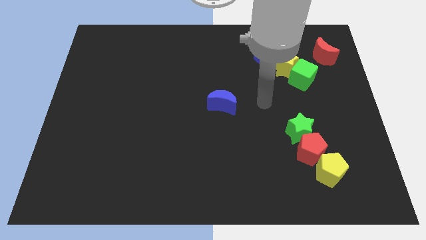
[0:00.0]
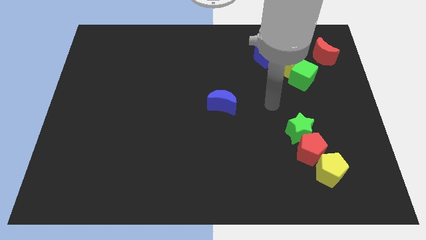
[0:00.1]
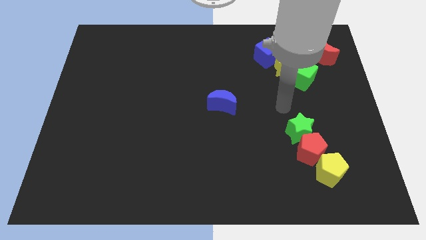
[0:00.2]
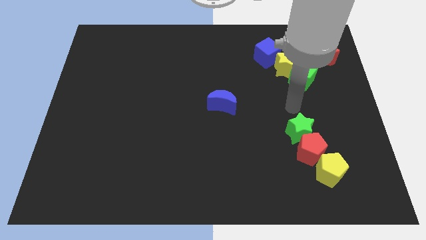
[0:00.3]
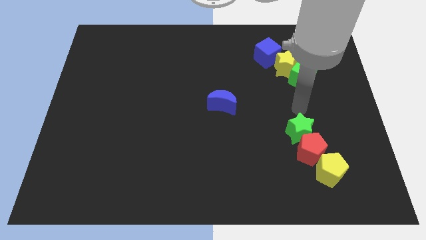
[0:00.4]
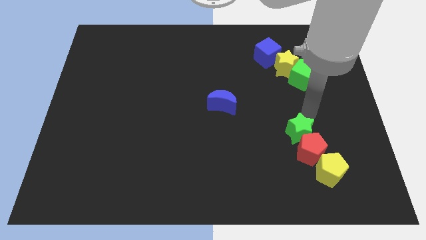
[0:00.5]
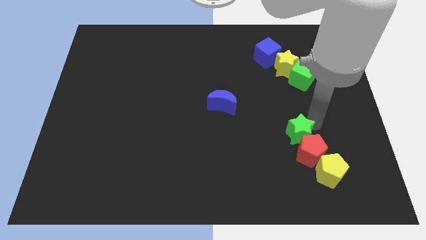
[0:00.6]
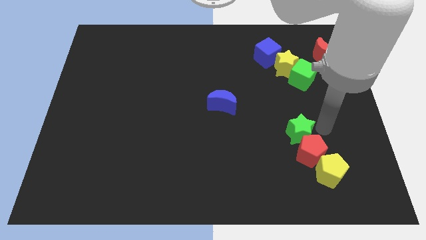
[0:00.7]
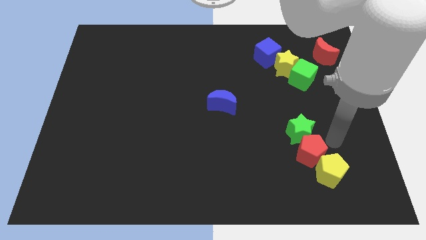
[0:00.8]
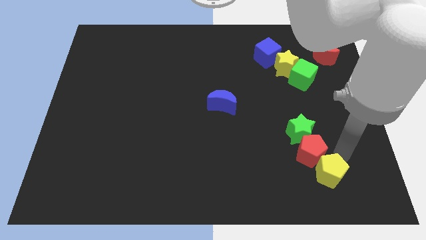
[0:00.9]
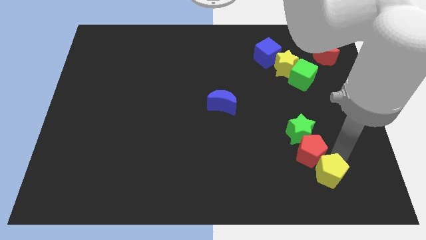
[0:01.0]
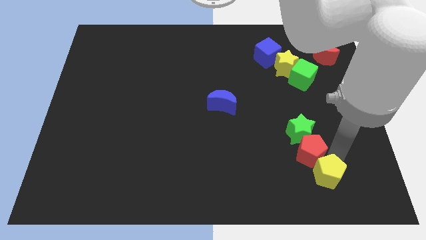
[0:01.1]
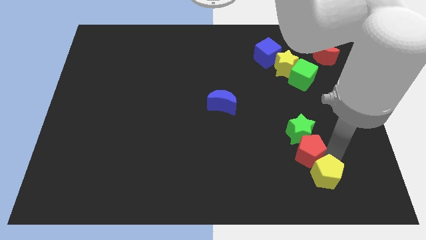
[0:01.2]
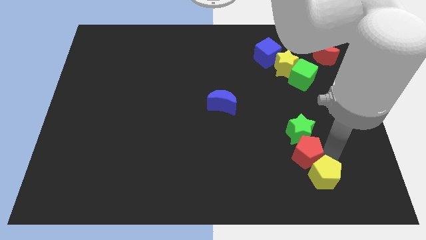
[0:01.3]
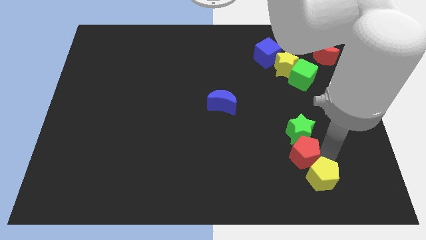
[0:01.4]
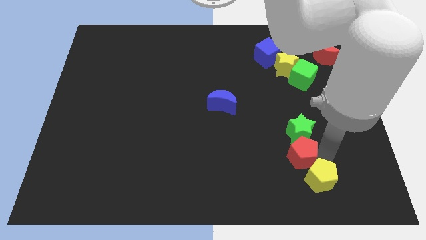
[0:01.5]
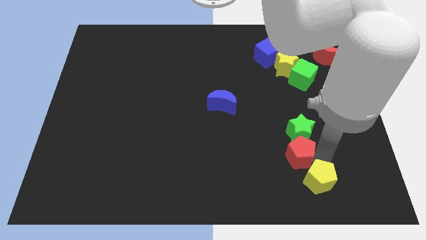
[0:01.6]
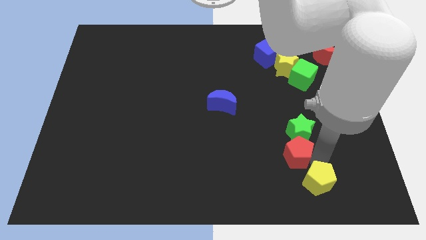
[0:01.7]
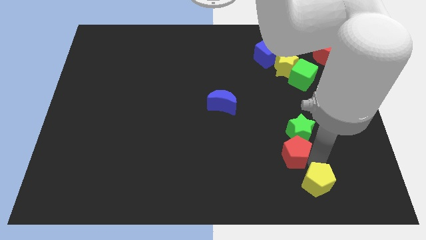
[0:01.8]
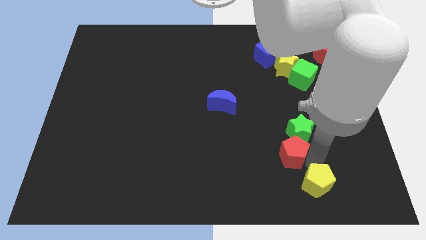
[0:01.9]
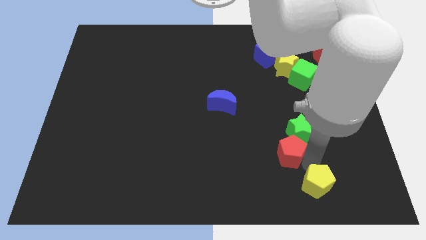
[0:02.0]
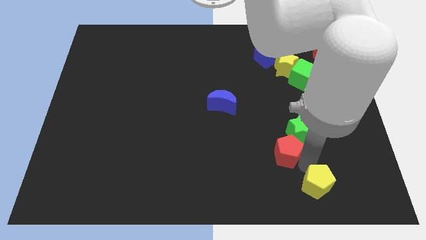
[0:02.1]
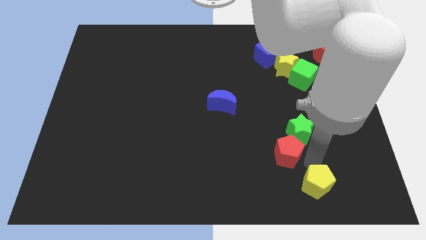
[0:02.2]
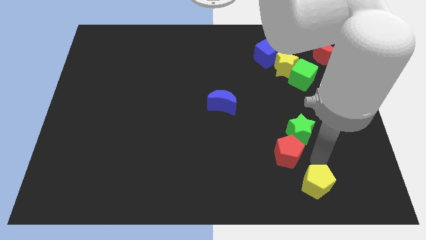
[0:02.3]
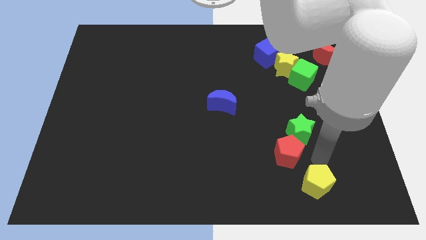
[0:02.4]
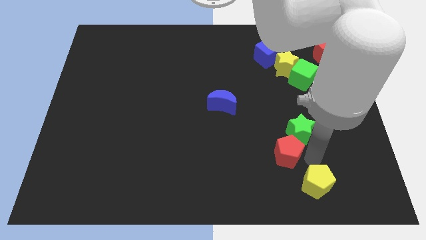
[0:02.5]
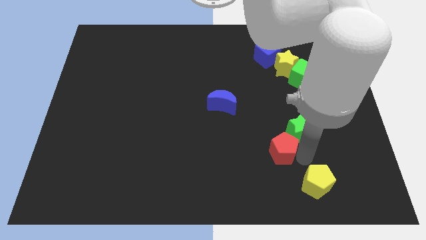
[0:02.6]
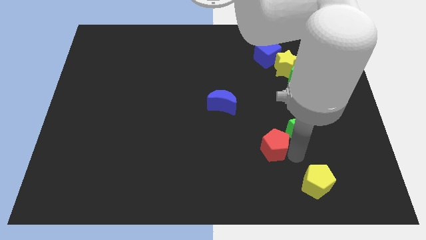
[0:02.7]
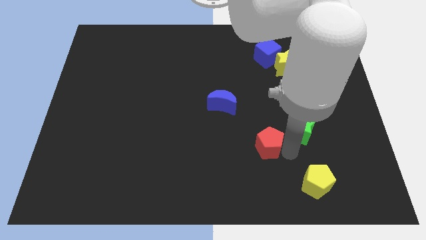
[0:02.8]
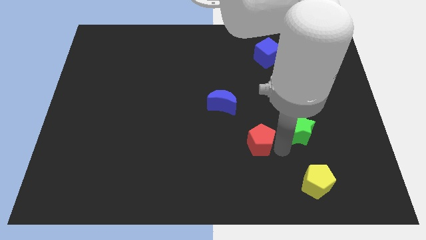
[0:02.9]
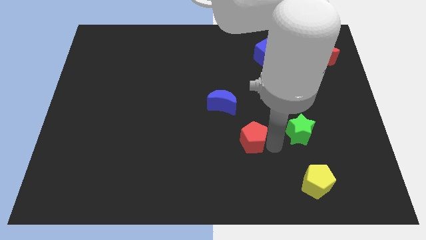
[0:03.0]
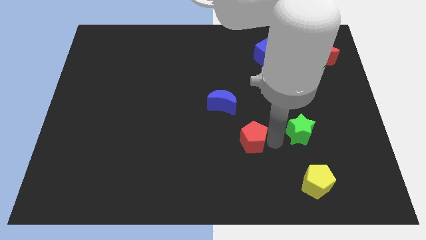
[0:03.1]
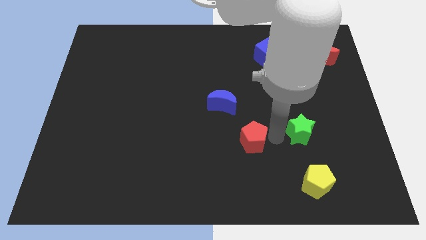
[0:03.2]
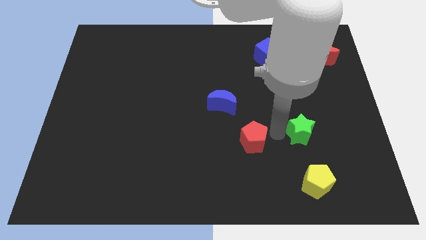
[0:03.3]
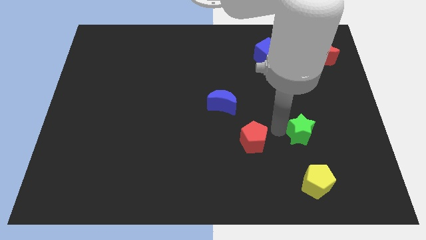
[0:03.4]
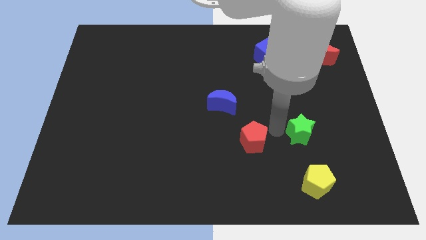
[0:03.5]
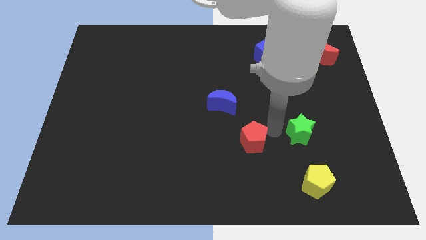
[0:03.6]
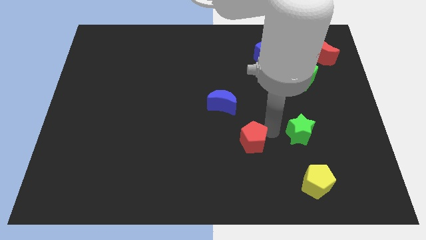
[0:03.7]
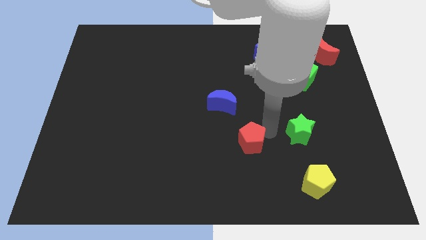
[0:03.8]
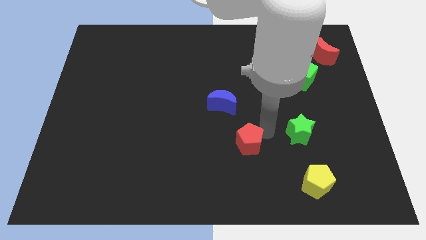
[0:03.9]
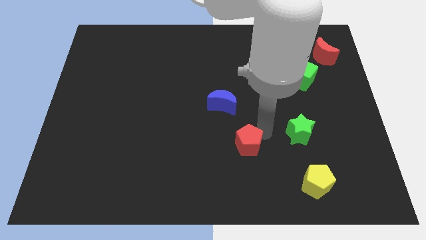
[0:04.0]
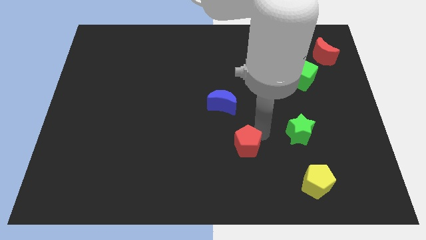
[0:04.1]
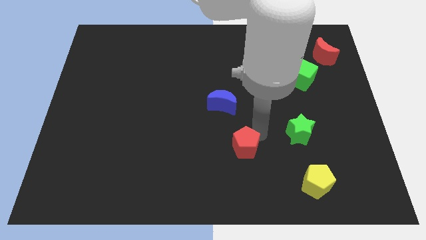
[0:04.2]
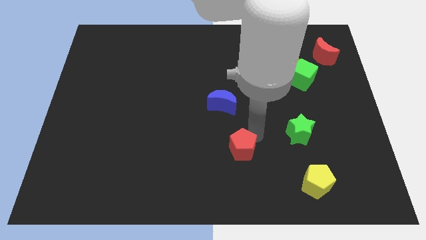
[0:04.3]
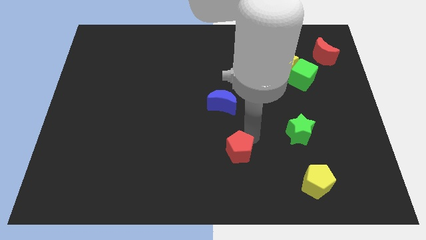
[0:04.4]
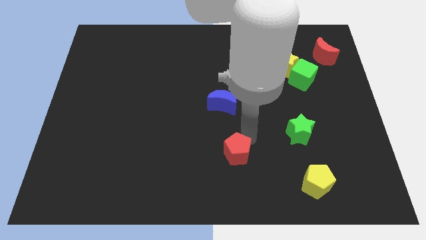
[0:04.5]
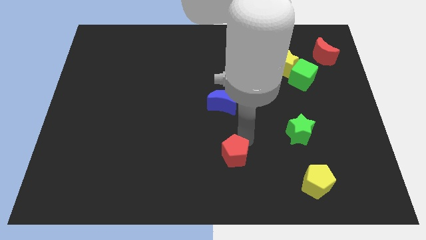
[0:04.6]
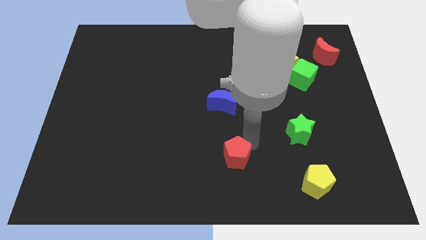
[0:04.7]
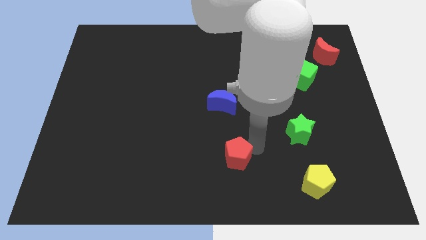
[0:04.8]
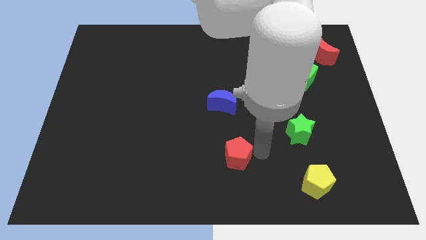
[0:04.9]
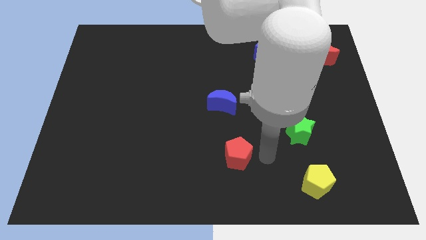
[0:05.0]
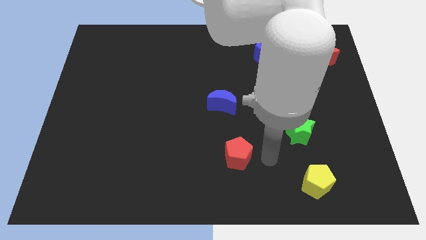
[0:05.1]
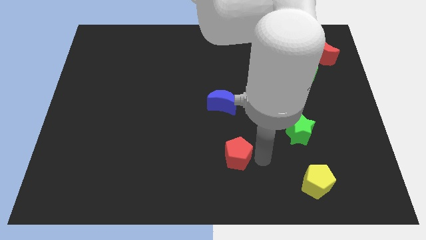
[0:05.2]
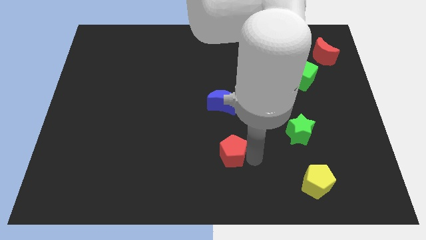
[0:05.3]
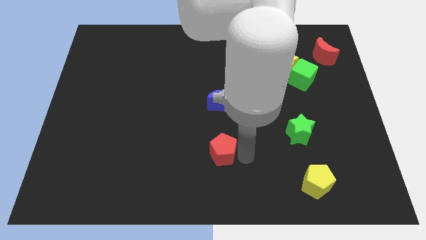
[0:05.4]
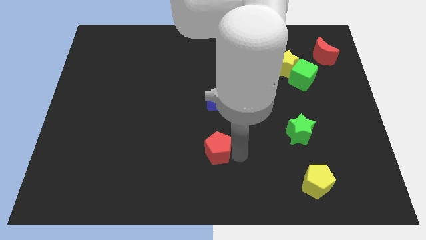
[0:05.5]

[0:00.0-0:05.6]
move the red pentagon left

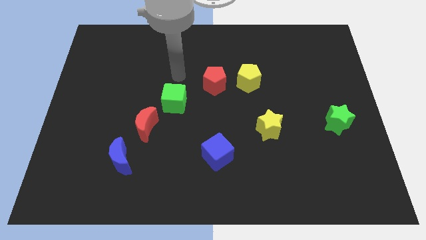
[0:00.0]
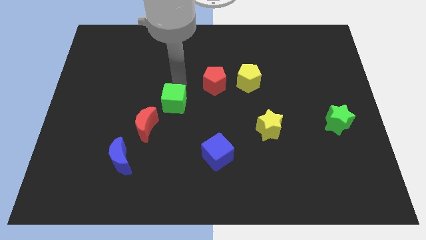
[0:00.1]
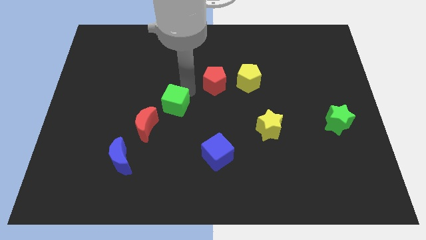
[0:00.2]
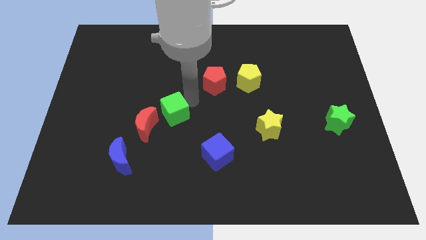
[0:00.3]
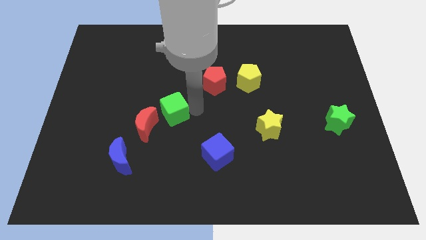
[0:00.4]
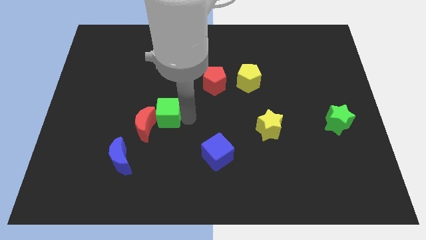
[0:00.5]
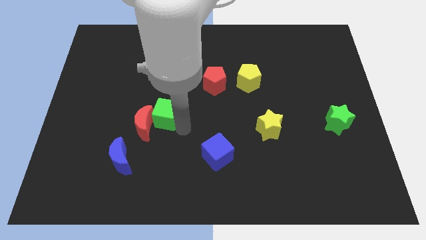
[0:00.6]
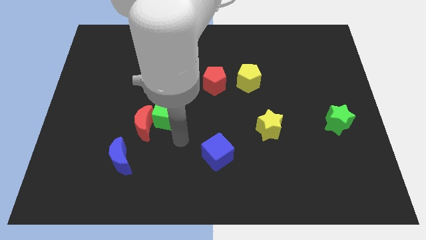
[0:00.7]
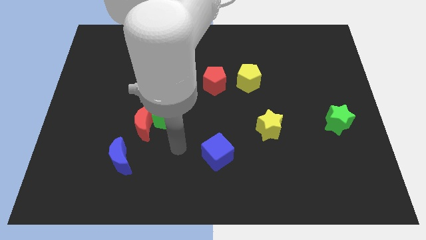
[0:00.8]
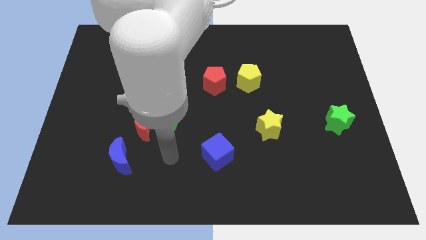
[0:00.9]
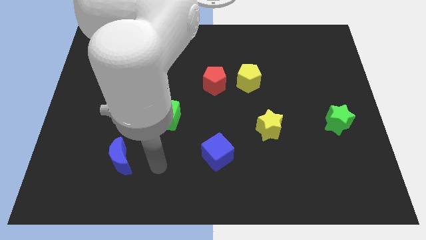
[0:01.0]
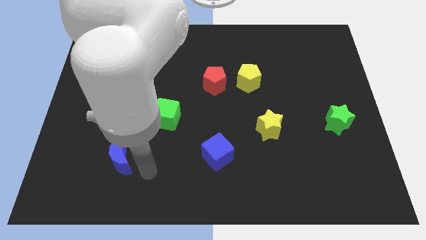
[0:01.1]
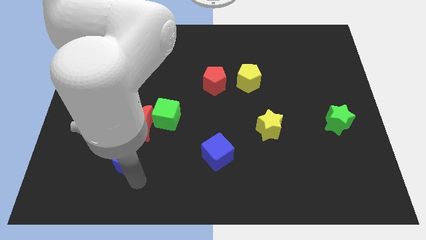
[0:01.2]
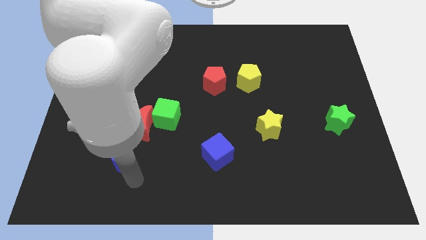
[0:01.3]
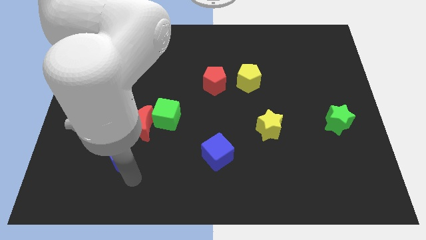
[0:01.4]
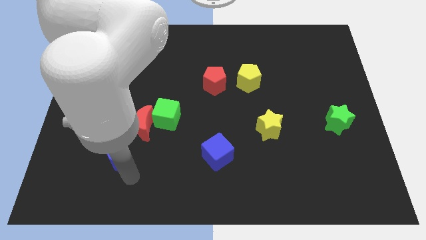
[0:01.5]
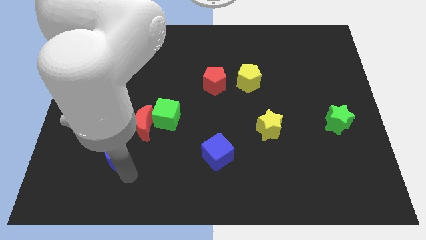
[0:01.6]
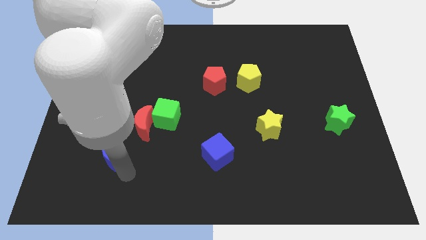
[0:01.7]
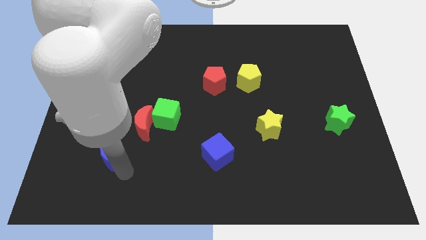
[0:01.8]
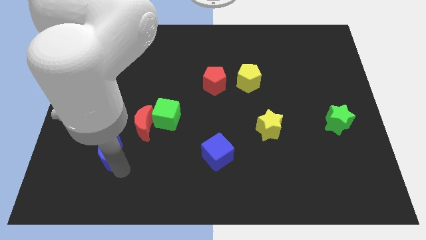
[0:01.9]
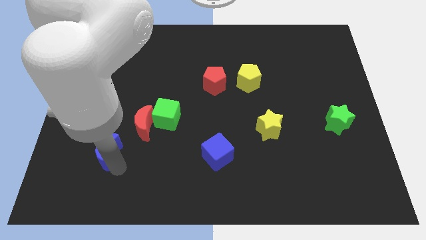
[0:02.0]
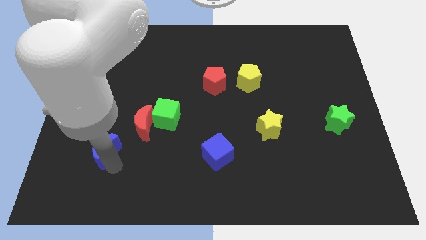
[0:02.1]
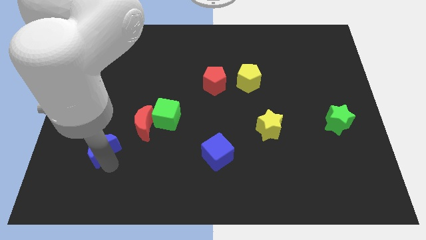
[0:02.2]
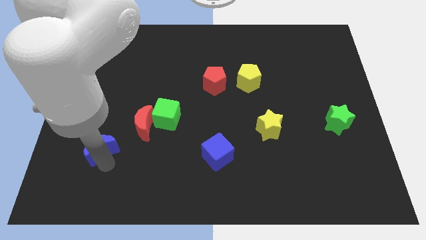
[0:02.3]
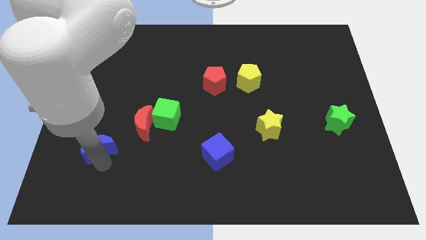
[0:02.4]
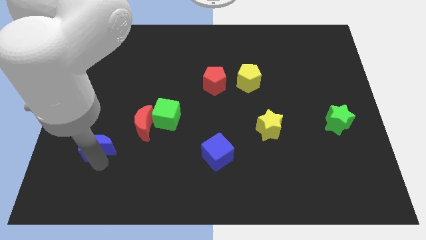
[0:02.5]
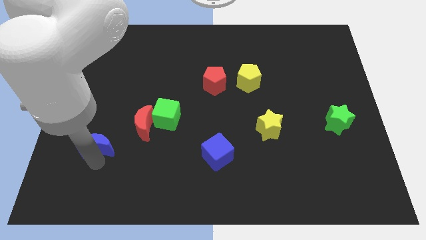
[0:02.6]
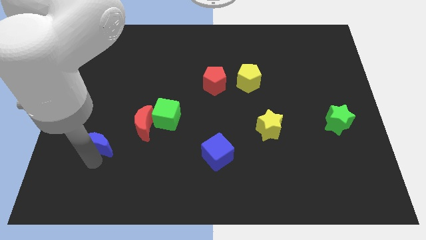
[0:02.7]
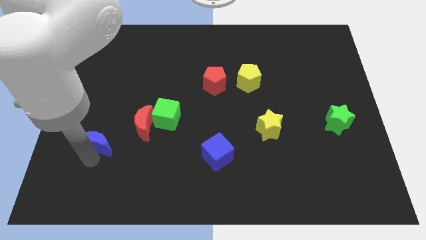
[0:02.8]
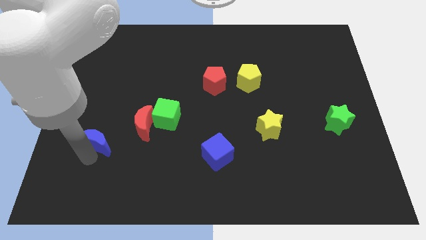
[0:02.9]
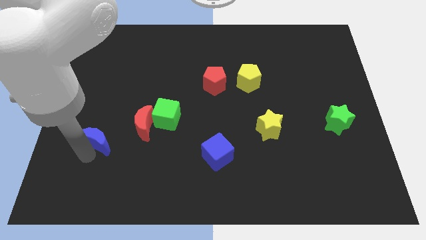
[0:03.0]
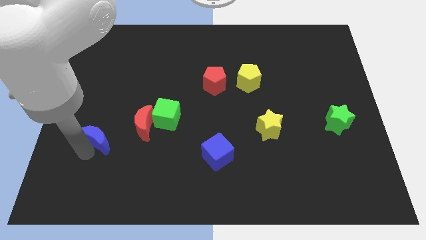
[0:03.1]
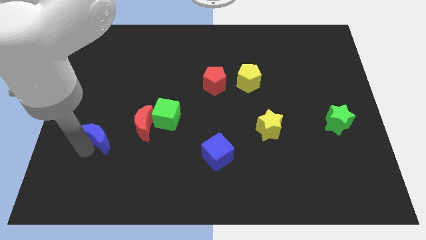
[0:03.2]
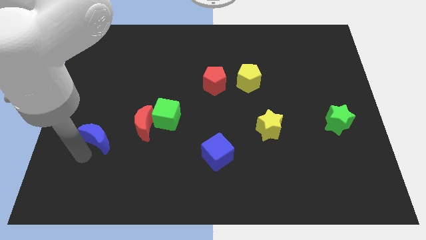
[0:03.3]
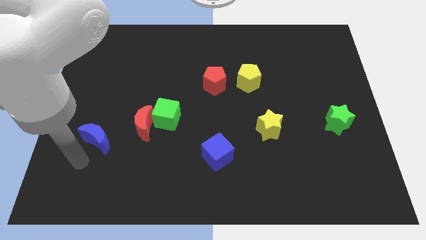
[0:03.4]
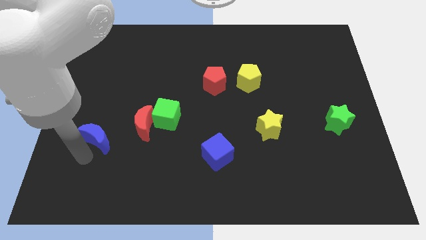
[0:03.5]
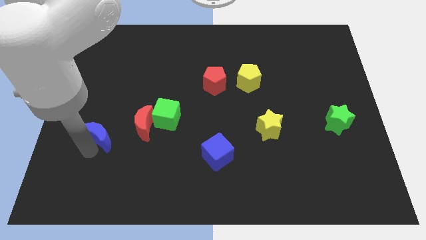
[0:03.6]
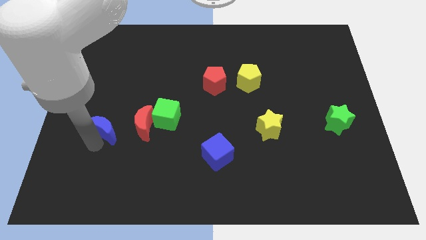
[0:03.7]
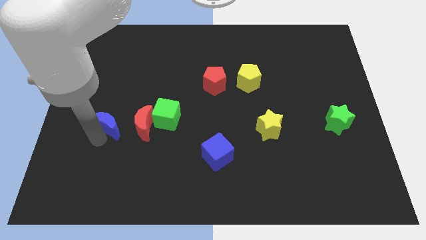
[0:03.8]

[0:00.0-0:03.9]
push the blue moon upwards slightly
